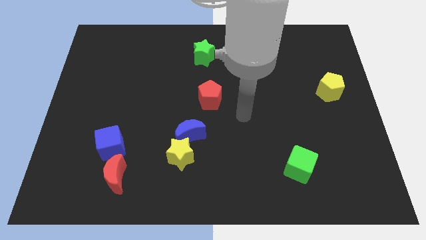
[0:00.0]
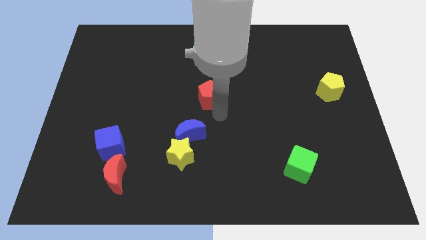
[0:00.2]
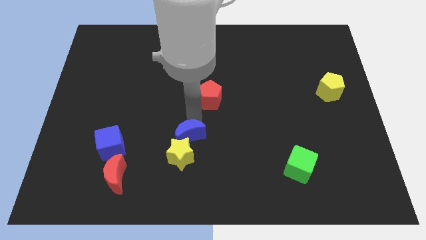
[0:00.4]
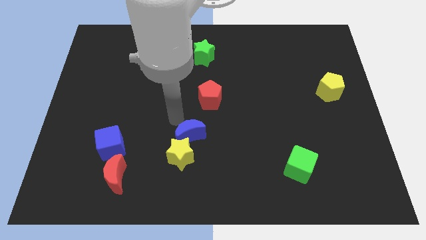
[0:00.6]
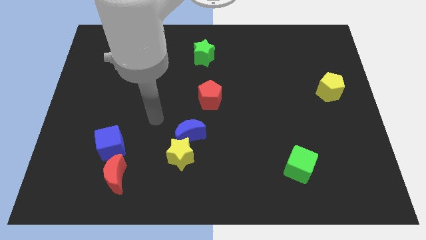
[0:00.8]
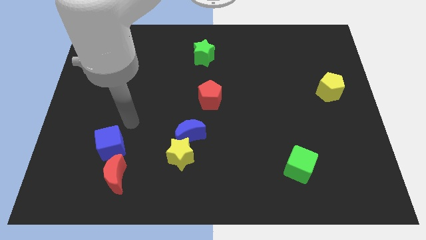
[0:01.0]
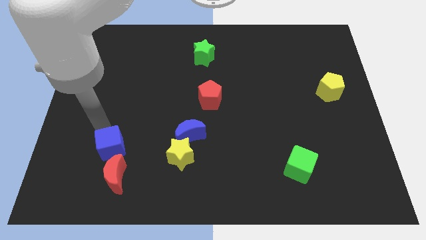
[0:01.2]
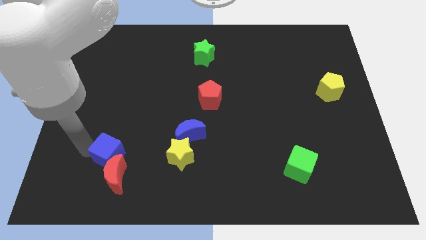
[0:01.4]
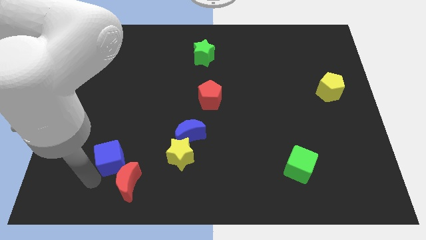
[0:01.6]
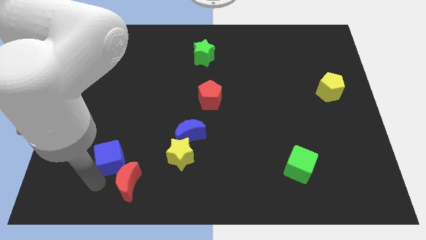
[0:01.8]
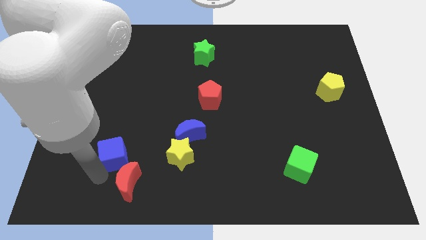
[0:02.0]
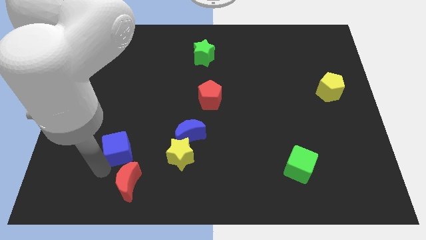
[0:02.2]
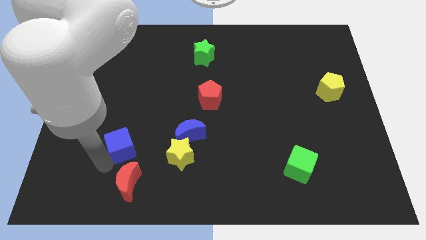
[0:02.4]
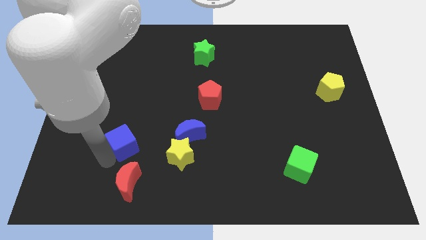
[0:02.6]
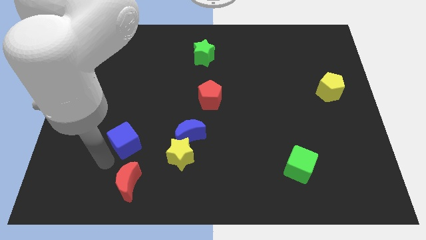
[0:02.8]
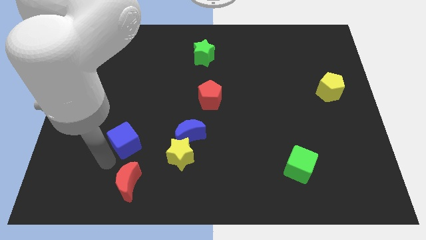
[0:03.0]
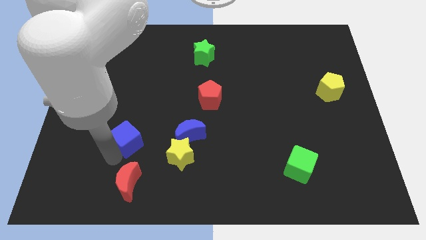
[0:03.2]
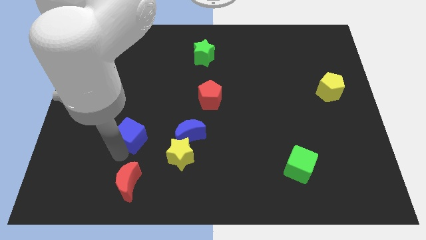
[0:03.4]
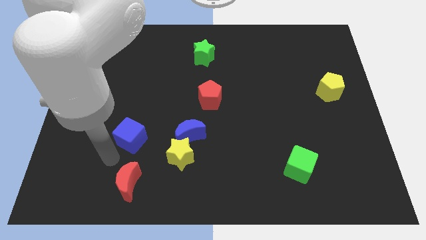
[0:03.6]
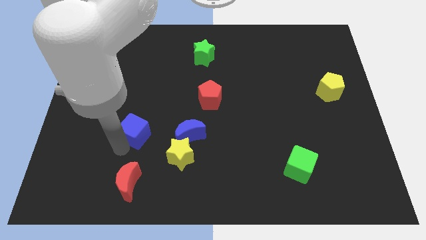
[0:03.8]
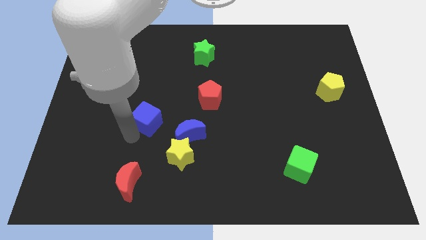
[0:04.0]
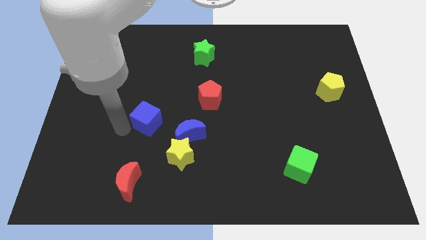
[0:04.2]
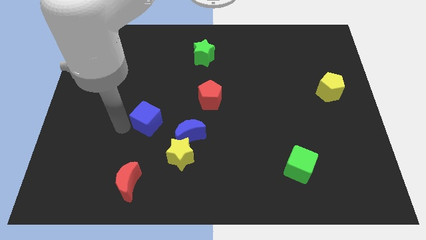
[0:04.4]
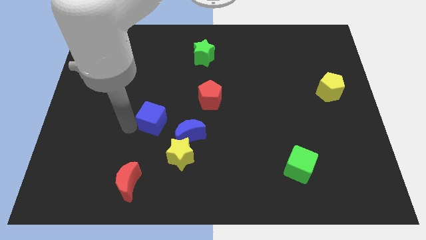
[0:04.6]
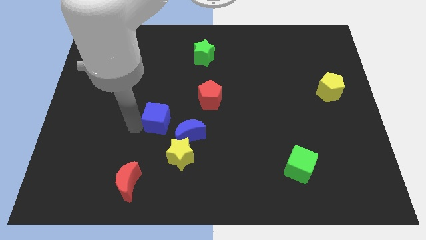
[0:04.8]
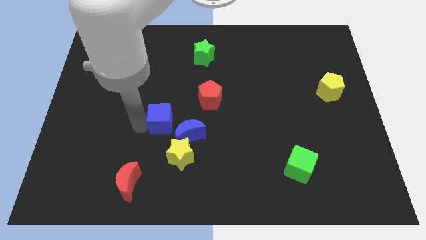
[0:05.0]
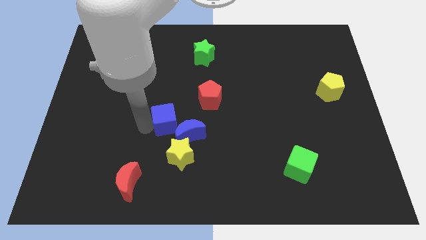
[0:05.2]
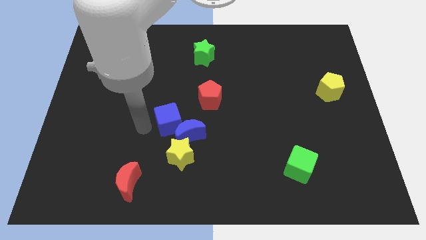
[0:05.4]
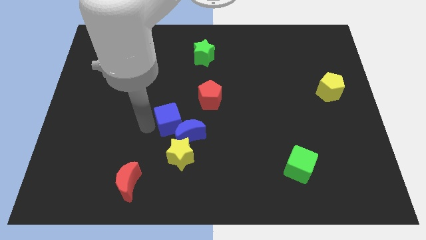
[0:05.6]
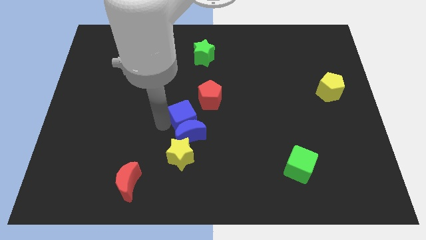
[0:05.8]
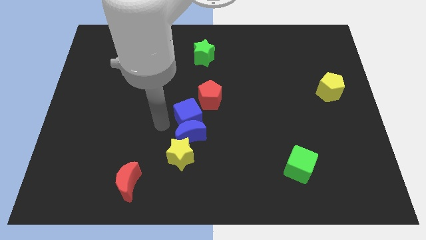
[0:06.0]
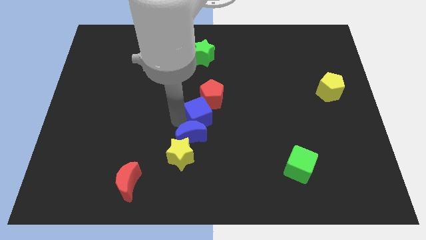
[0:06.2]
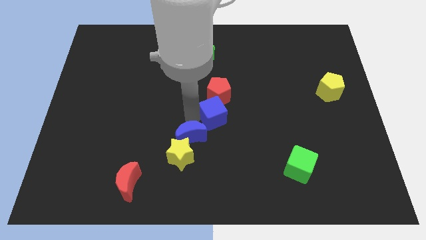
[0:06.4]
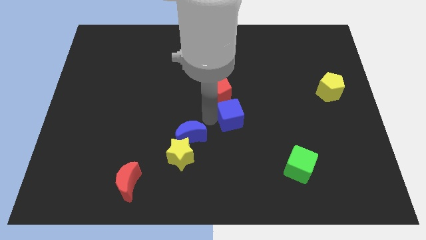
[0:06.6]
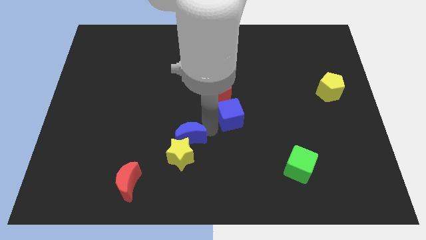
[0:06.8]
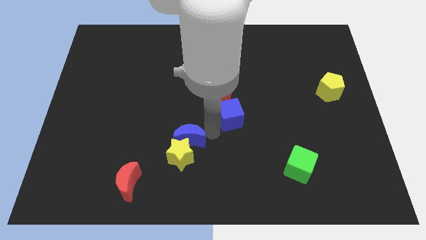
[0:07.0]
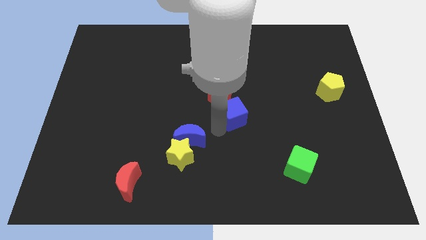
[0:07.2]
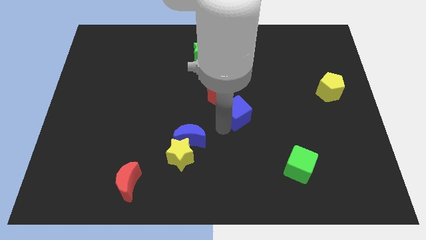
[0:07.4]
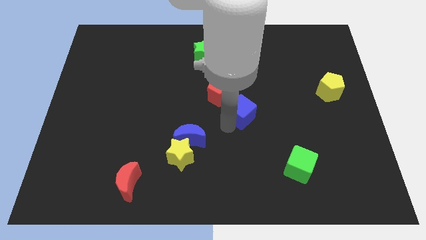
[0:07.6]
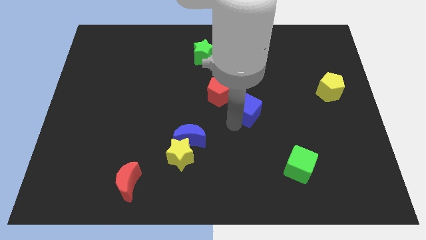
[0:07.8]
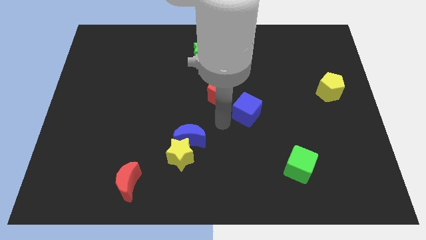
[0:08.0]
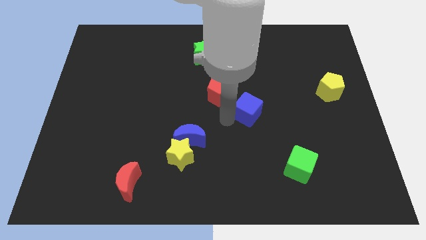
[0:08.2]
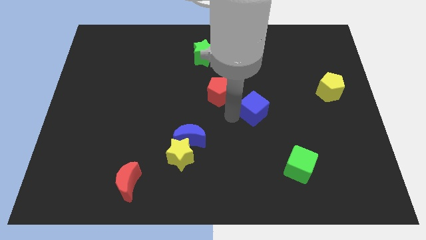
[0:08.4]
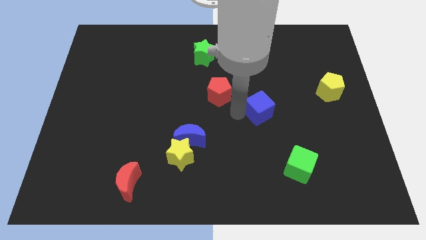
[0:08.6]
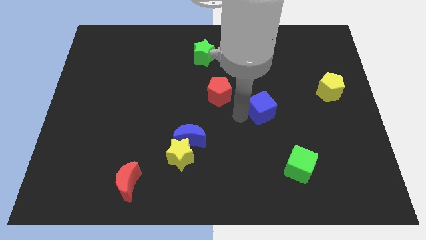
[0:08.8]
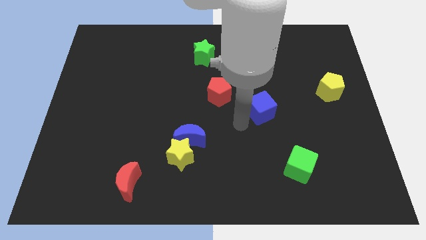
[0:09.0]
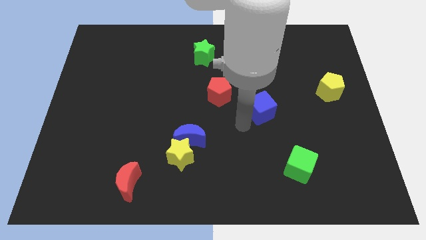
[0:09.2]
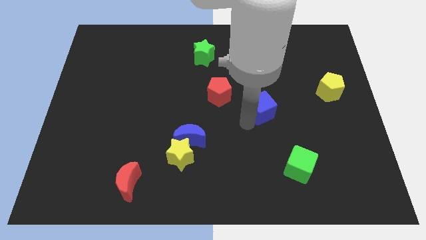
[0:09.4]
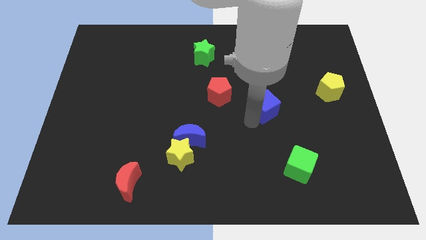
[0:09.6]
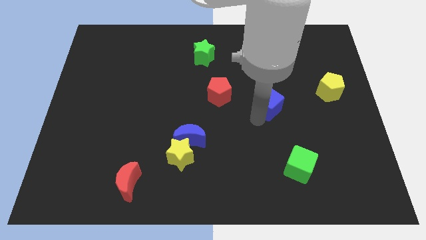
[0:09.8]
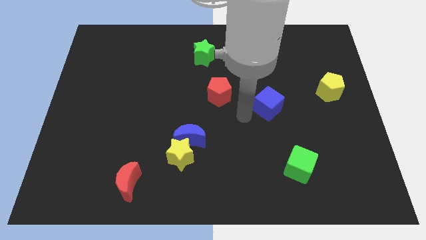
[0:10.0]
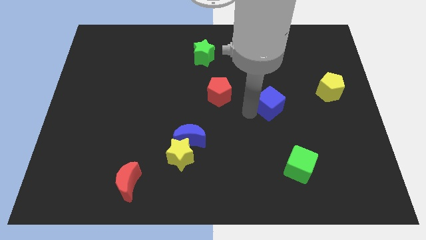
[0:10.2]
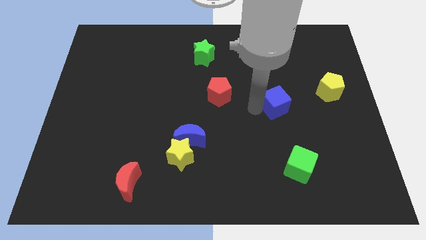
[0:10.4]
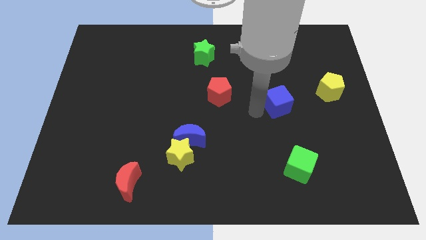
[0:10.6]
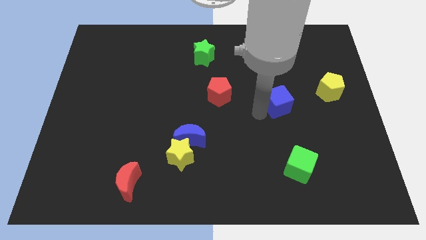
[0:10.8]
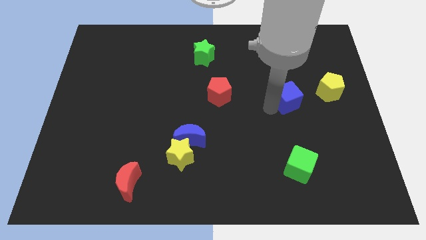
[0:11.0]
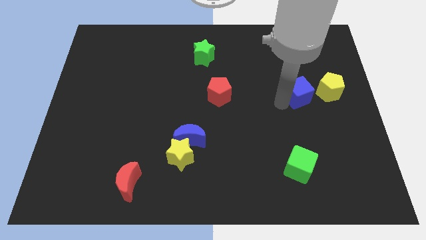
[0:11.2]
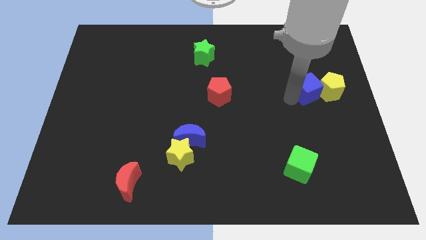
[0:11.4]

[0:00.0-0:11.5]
put the blue cube to the yellow pentagon

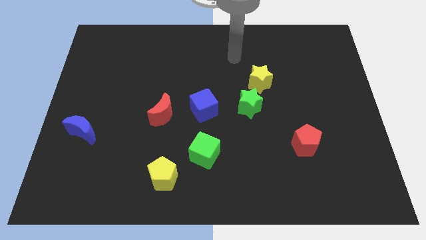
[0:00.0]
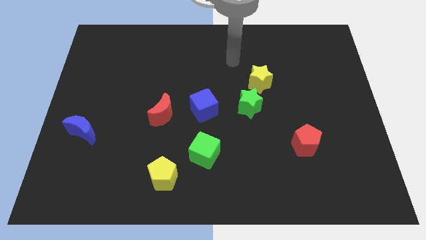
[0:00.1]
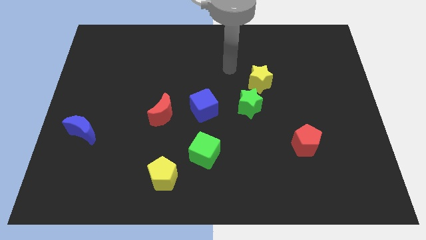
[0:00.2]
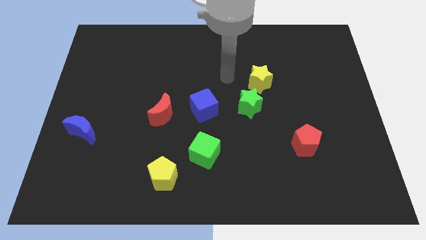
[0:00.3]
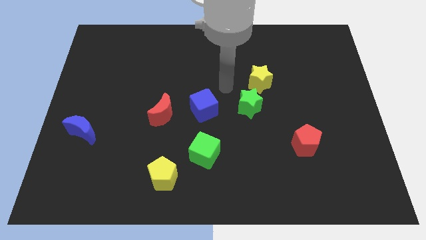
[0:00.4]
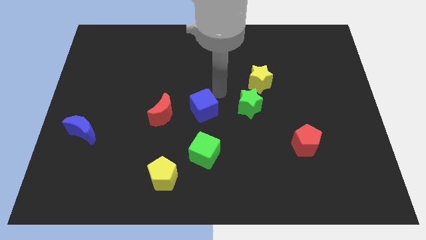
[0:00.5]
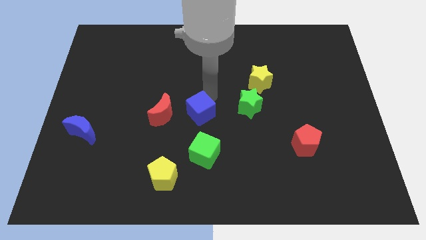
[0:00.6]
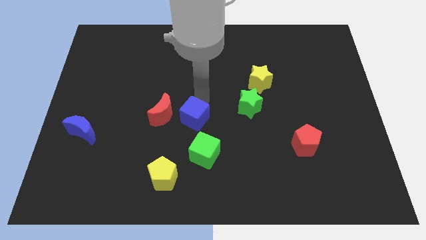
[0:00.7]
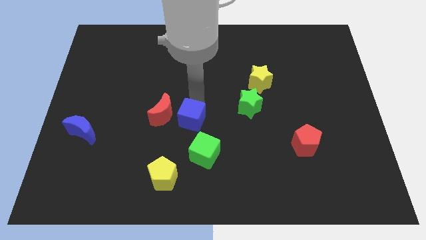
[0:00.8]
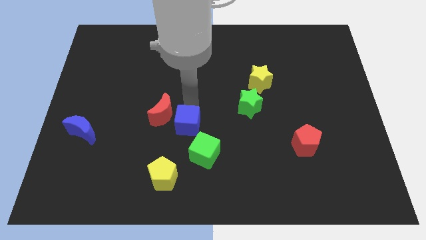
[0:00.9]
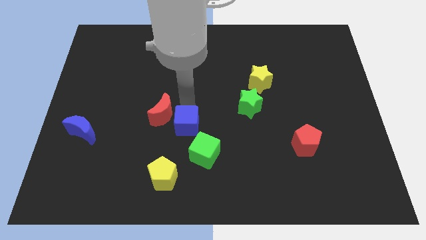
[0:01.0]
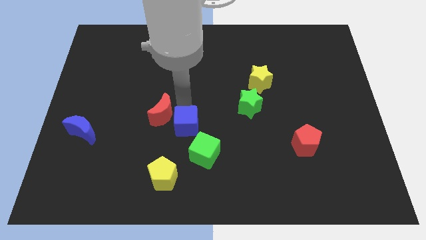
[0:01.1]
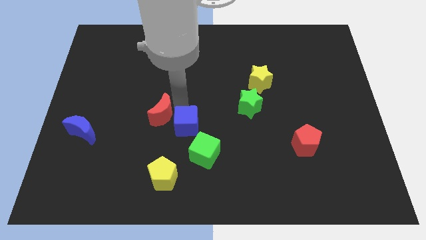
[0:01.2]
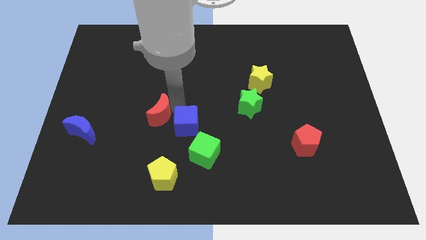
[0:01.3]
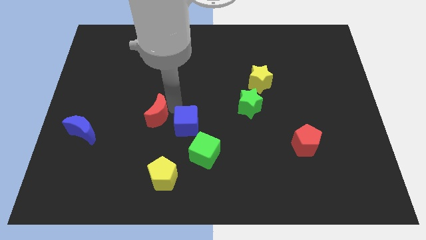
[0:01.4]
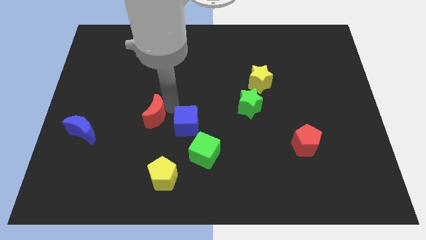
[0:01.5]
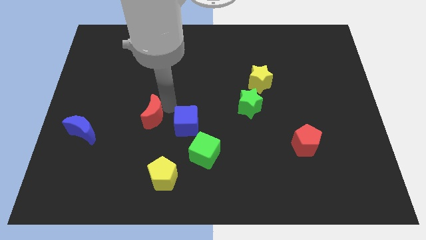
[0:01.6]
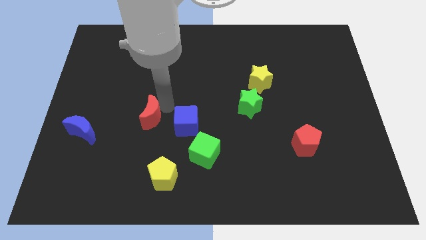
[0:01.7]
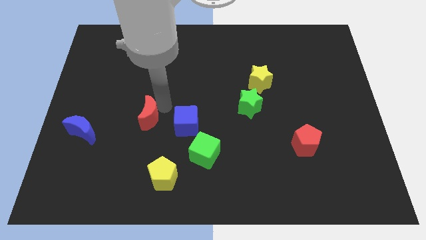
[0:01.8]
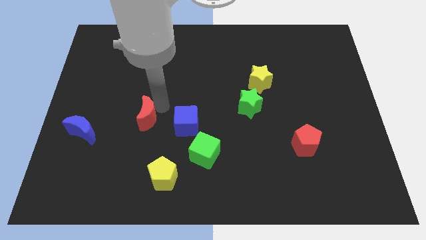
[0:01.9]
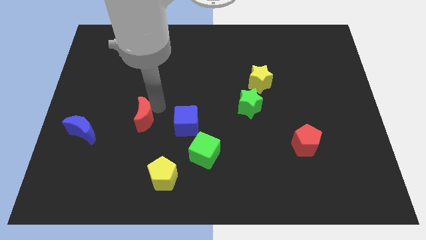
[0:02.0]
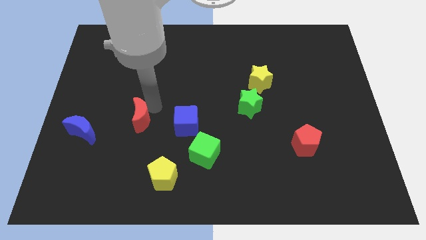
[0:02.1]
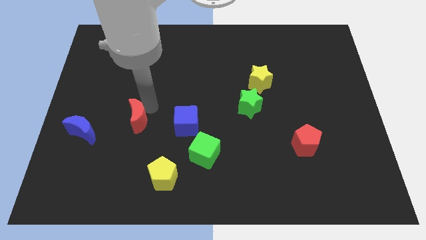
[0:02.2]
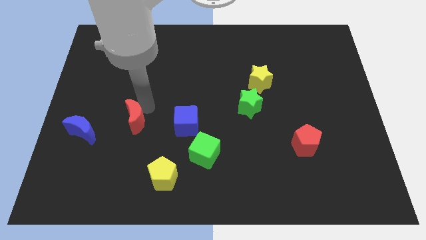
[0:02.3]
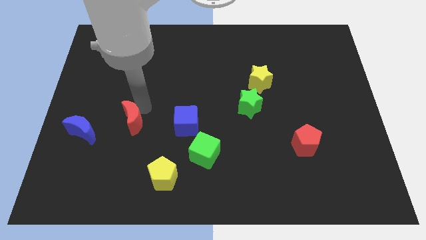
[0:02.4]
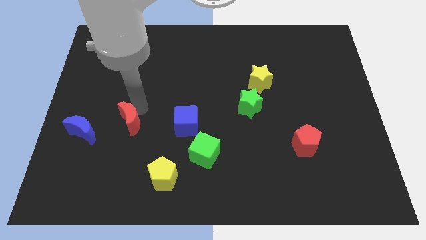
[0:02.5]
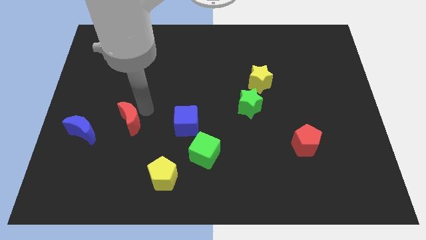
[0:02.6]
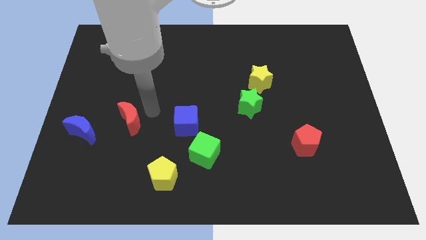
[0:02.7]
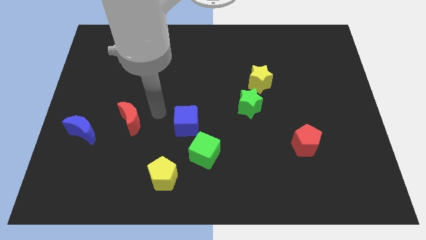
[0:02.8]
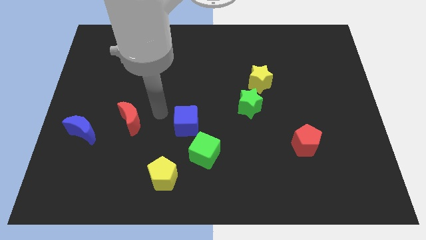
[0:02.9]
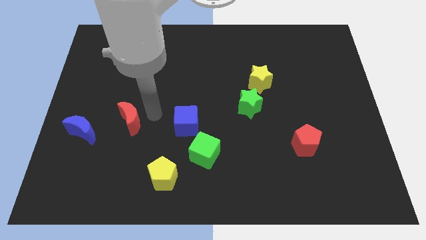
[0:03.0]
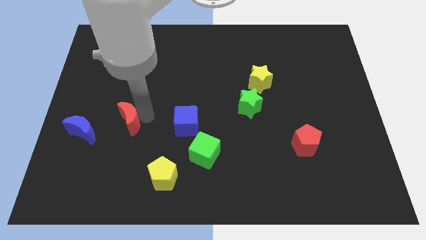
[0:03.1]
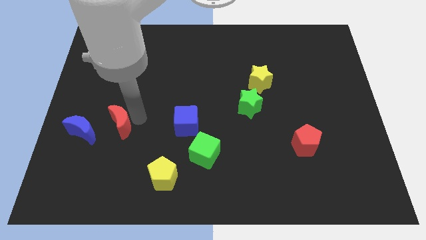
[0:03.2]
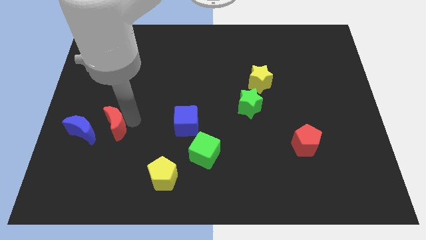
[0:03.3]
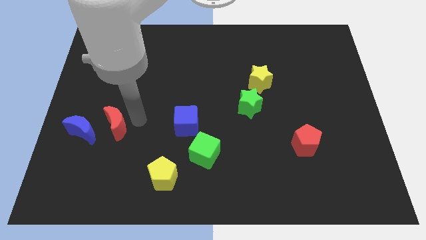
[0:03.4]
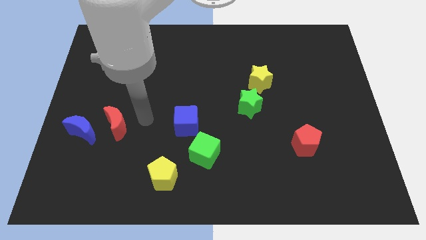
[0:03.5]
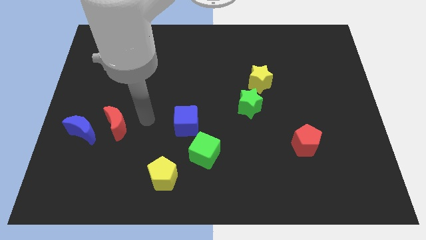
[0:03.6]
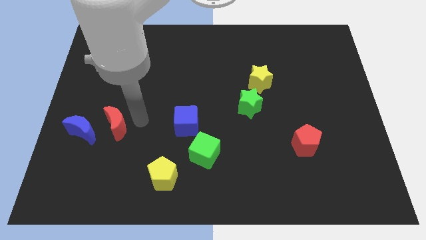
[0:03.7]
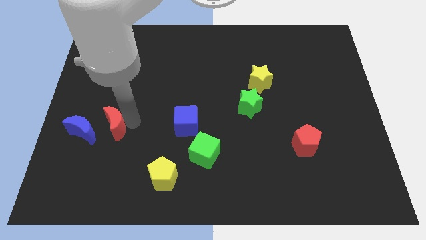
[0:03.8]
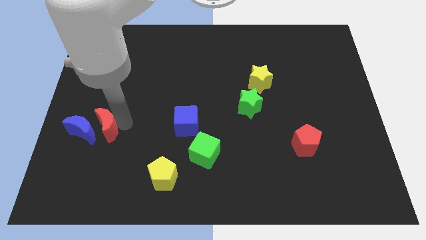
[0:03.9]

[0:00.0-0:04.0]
move the red moon to the blue moon
